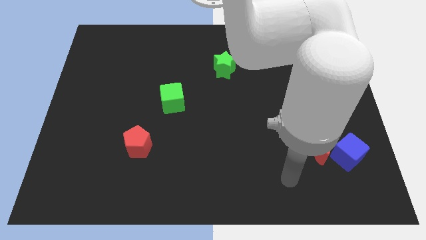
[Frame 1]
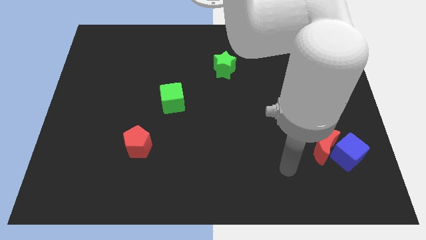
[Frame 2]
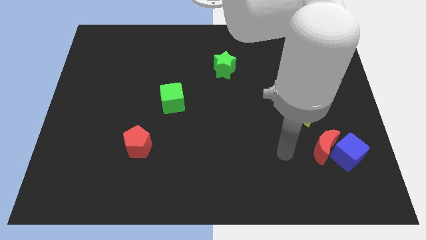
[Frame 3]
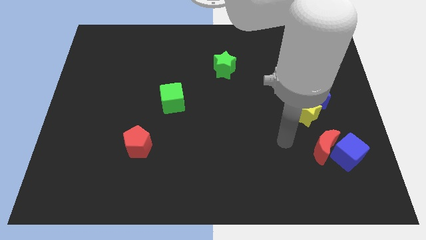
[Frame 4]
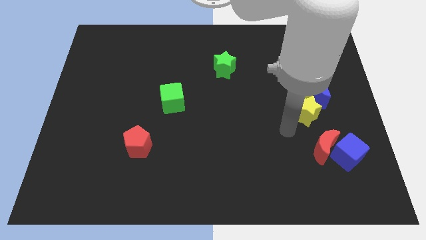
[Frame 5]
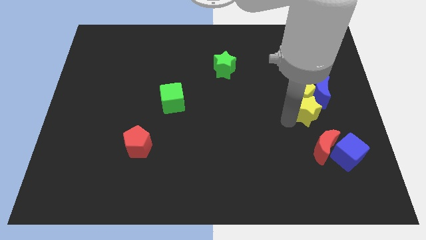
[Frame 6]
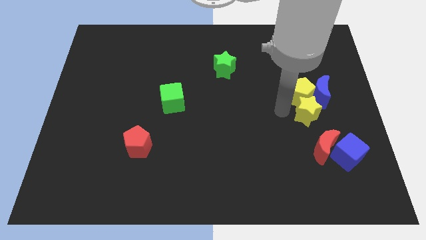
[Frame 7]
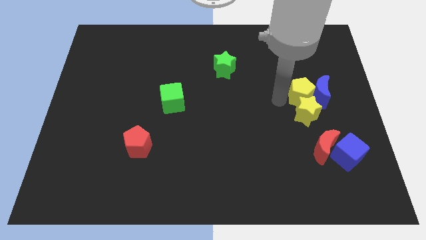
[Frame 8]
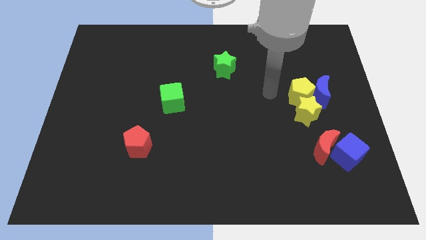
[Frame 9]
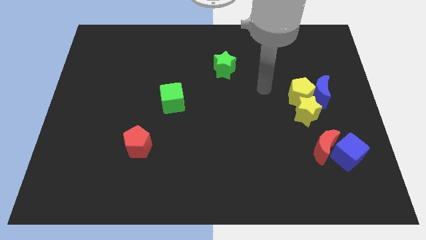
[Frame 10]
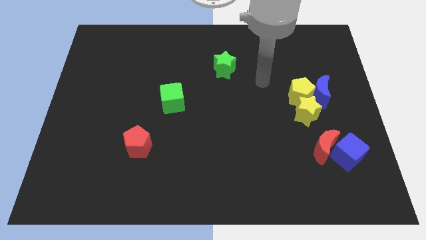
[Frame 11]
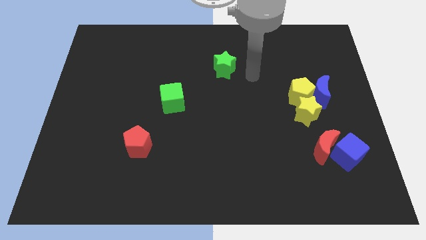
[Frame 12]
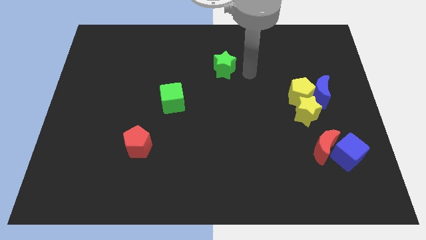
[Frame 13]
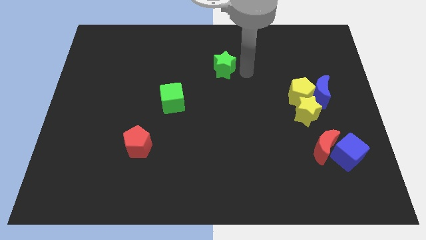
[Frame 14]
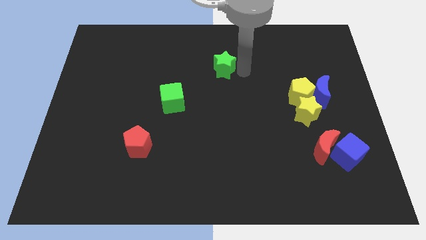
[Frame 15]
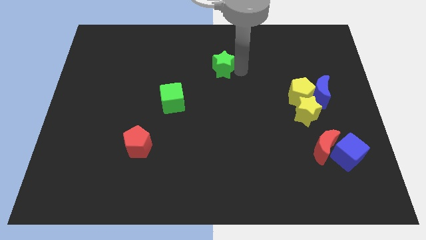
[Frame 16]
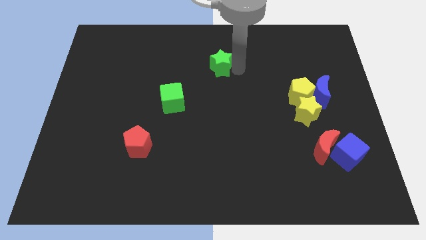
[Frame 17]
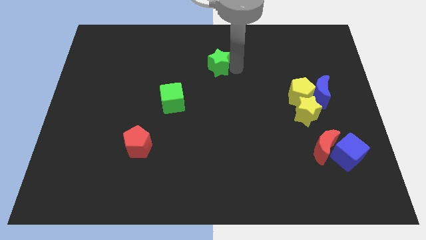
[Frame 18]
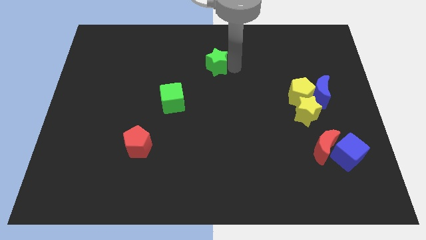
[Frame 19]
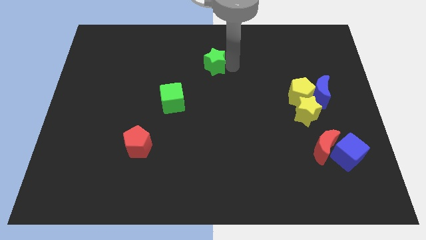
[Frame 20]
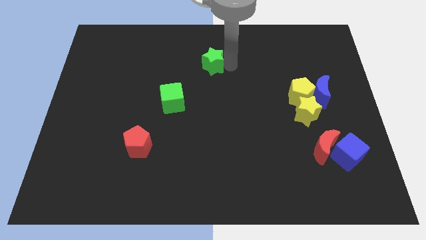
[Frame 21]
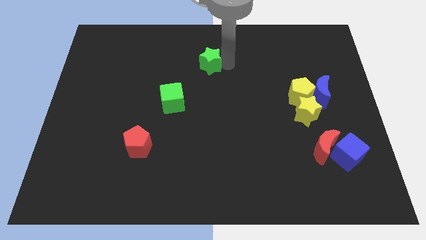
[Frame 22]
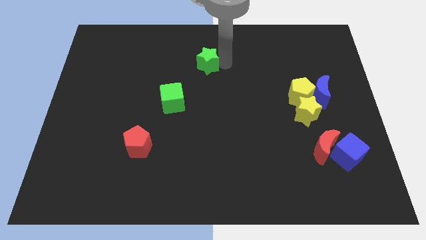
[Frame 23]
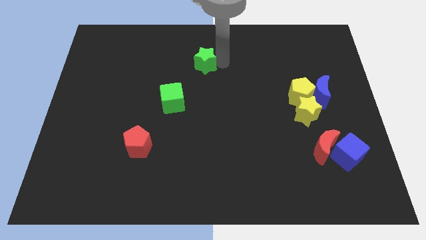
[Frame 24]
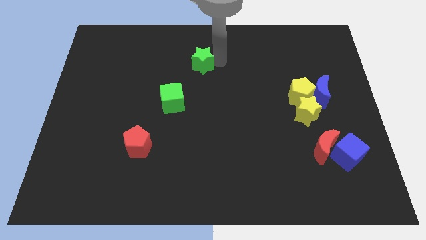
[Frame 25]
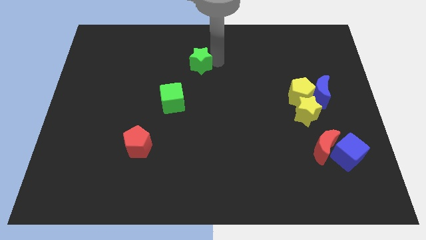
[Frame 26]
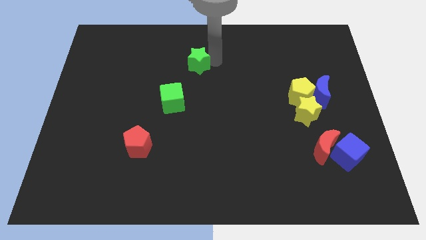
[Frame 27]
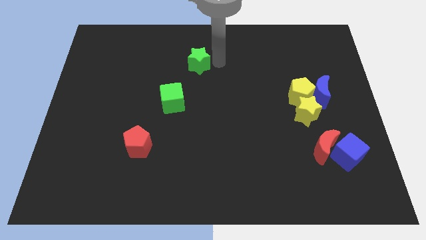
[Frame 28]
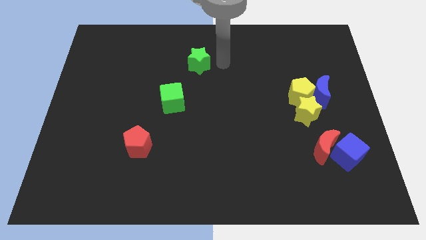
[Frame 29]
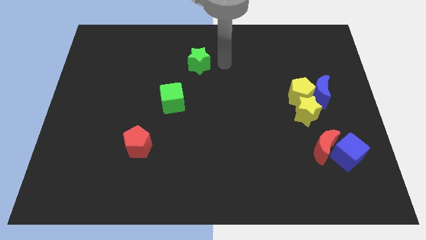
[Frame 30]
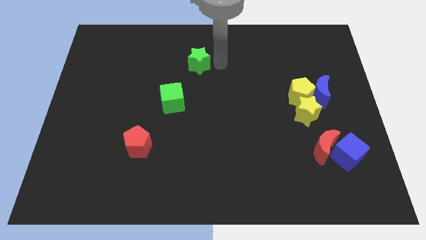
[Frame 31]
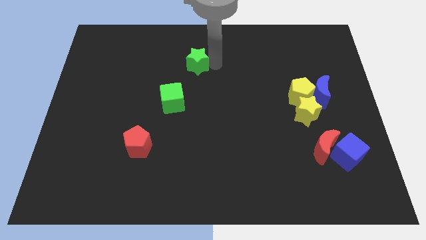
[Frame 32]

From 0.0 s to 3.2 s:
slightly slide the green star left

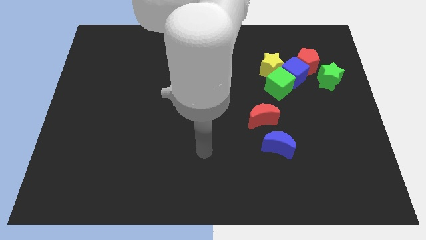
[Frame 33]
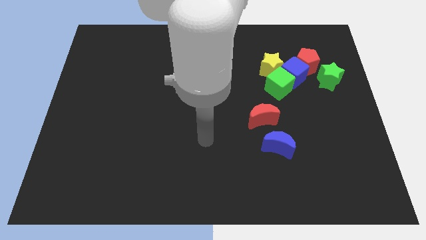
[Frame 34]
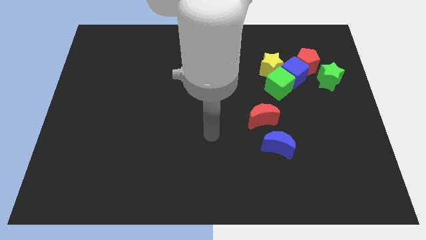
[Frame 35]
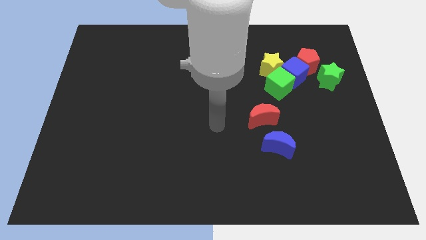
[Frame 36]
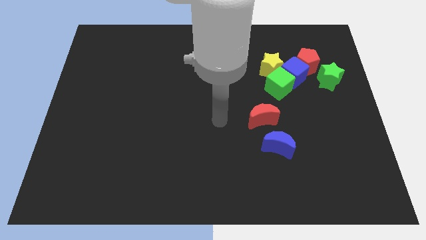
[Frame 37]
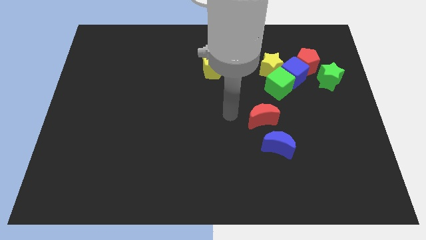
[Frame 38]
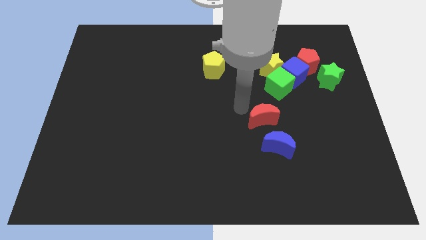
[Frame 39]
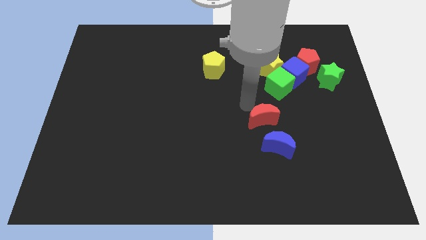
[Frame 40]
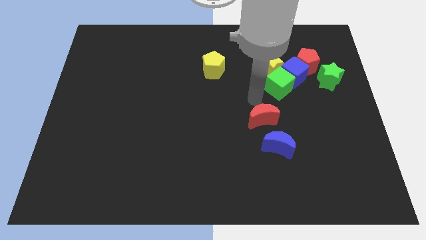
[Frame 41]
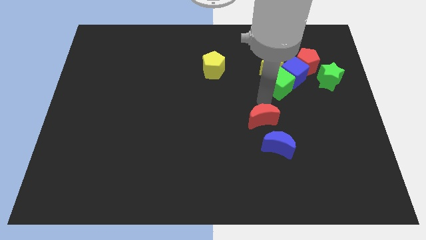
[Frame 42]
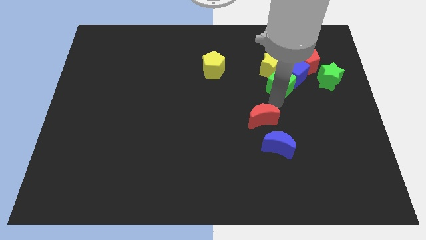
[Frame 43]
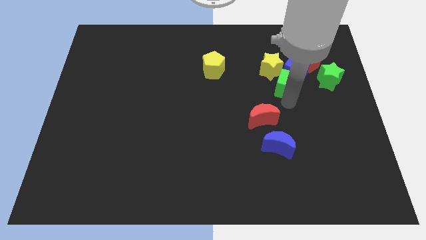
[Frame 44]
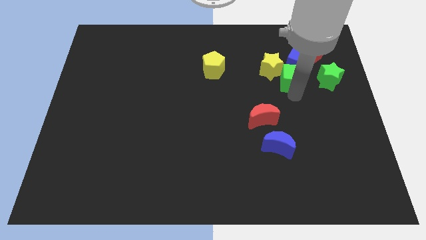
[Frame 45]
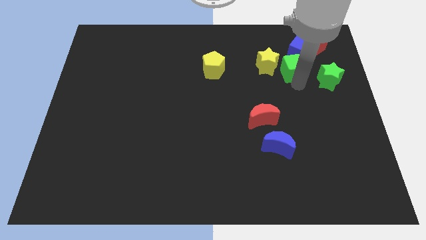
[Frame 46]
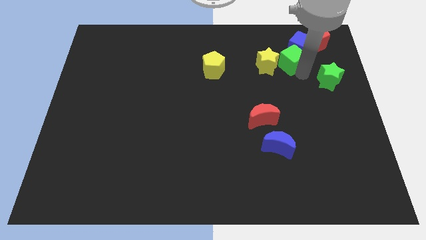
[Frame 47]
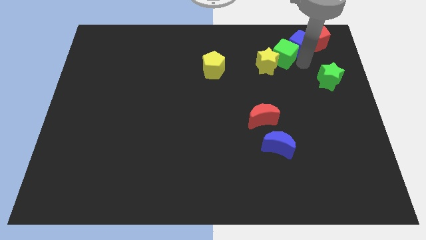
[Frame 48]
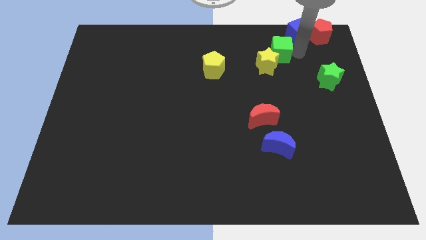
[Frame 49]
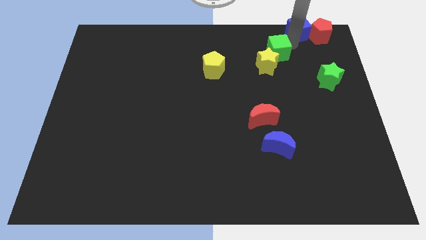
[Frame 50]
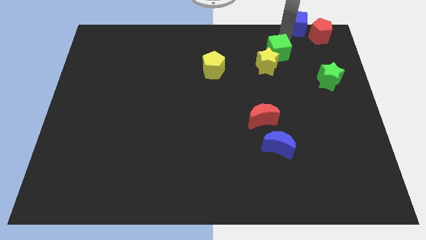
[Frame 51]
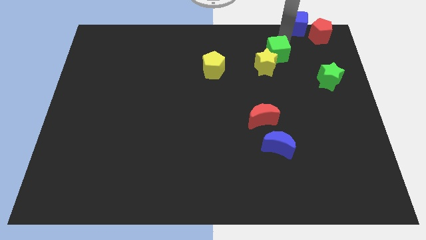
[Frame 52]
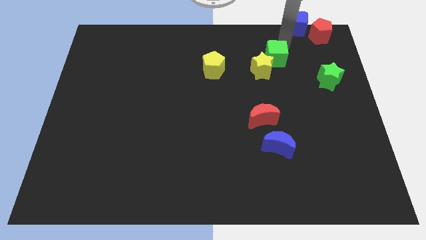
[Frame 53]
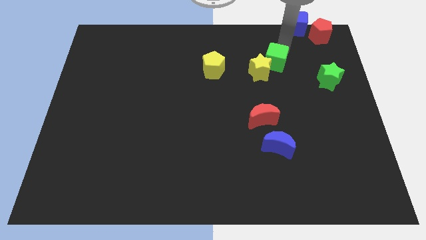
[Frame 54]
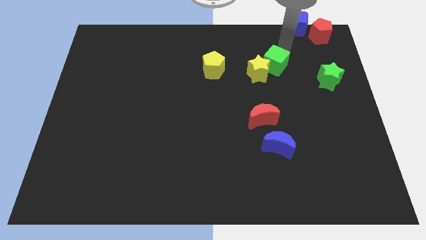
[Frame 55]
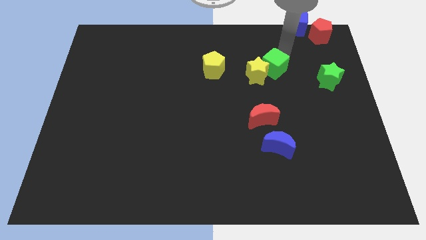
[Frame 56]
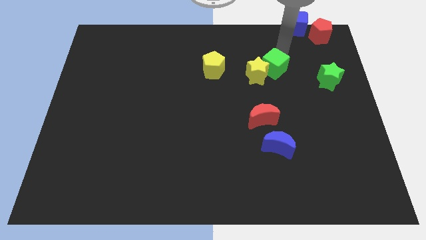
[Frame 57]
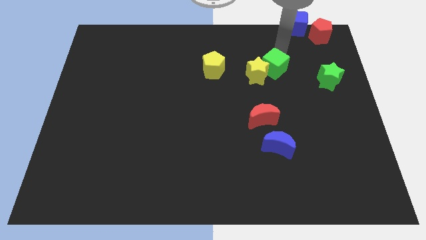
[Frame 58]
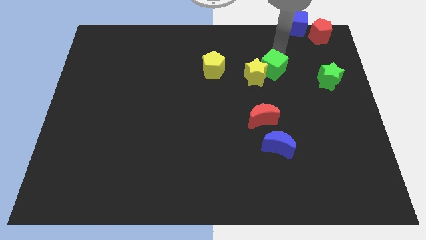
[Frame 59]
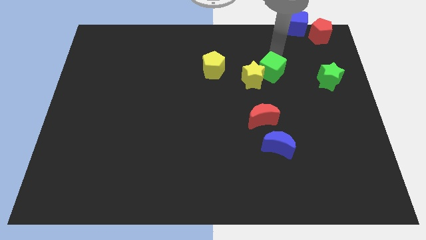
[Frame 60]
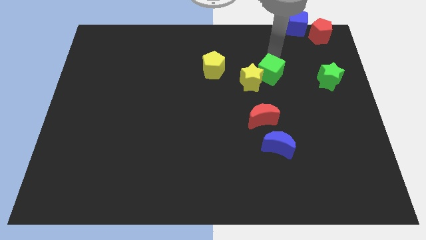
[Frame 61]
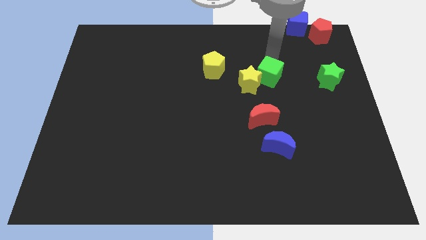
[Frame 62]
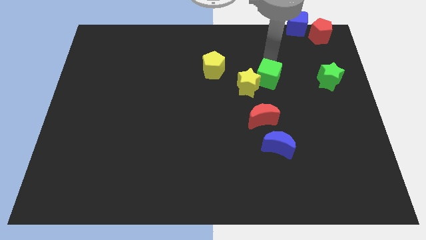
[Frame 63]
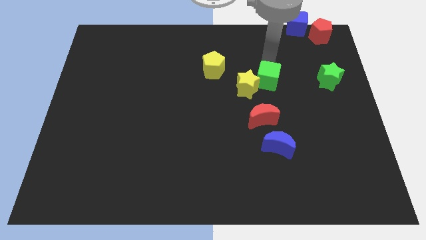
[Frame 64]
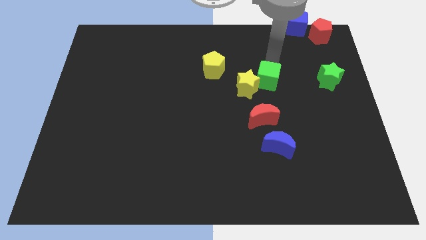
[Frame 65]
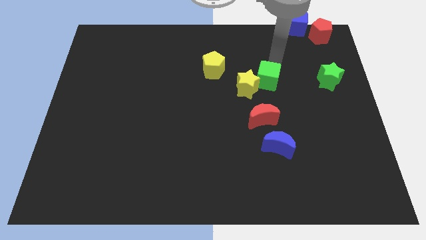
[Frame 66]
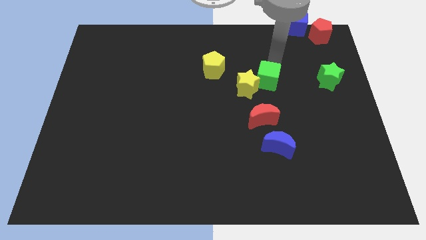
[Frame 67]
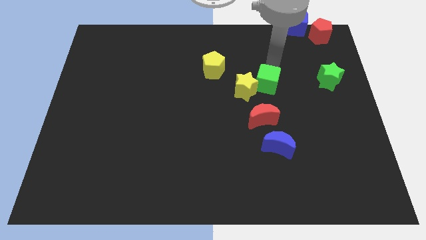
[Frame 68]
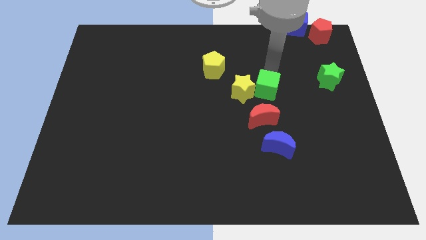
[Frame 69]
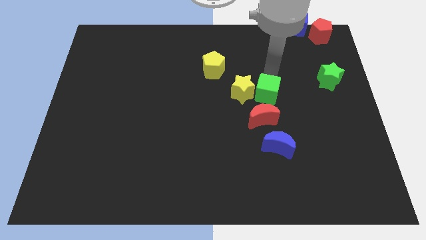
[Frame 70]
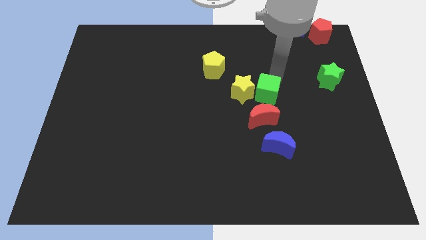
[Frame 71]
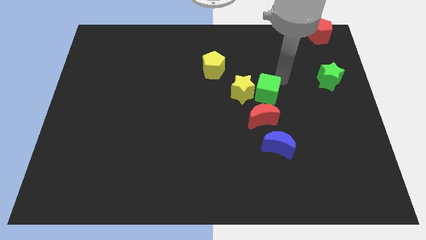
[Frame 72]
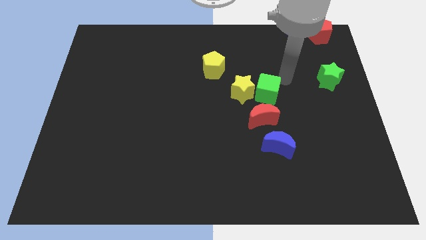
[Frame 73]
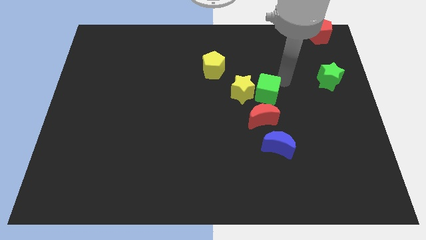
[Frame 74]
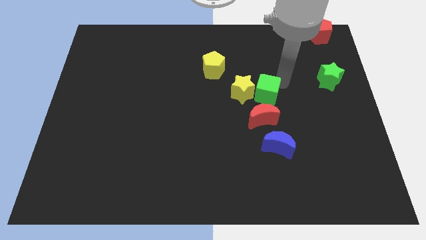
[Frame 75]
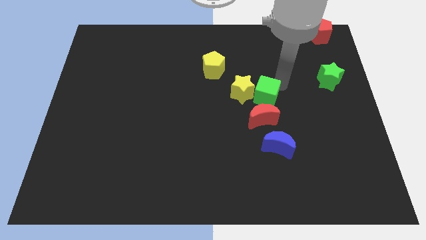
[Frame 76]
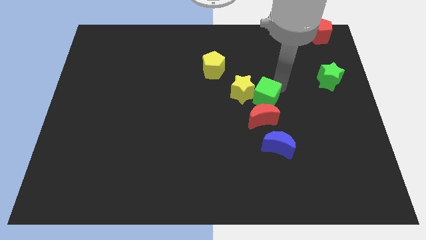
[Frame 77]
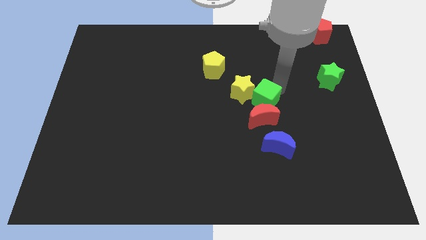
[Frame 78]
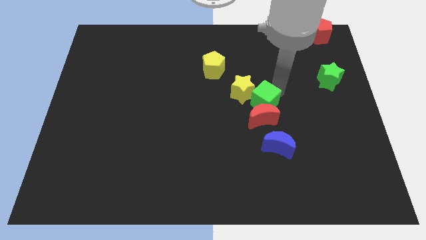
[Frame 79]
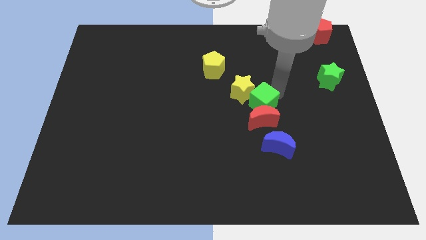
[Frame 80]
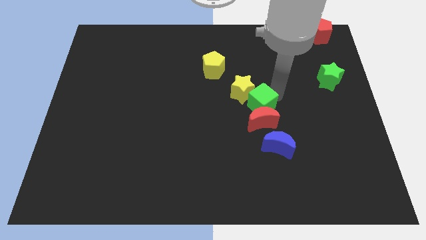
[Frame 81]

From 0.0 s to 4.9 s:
slide the green cube somewhat down and left diagonally
